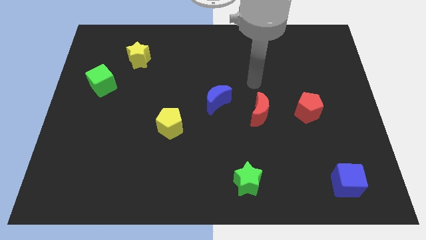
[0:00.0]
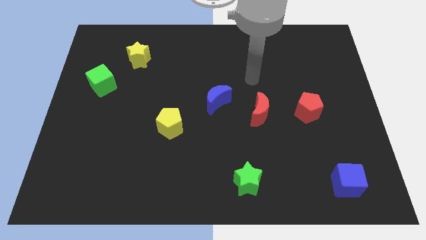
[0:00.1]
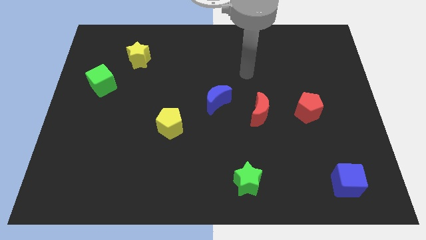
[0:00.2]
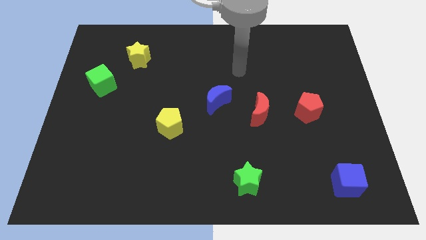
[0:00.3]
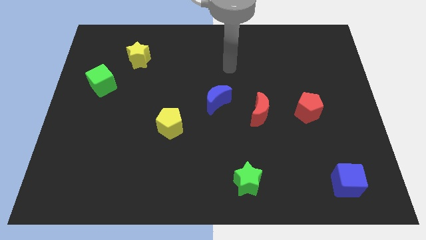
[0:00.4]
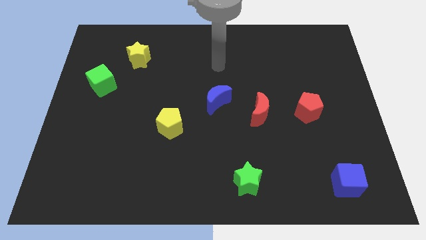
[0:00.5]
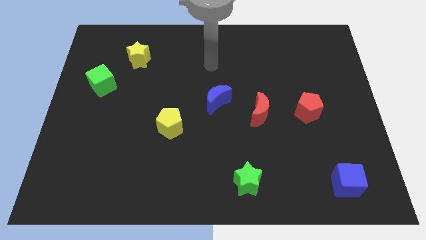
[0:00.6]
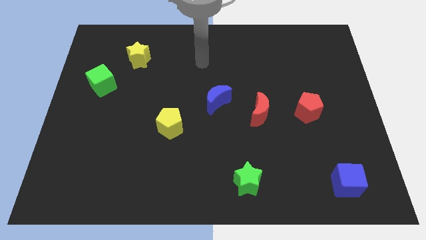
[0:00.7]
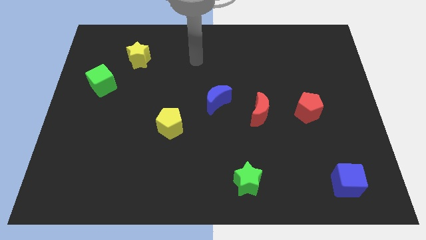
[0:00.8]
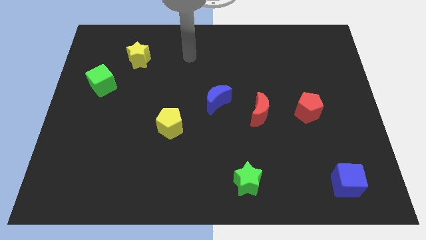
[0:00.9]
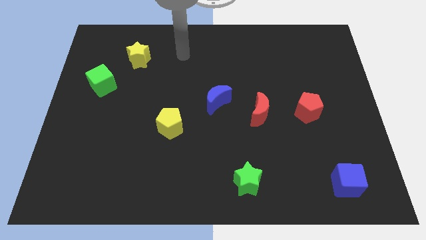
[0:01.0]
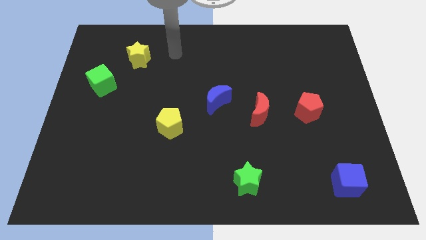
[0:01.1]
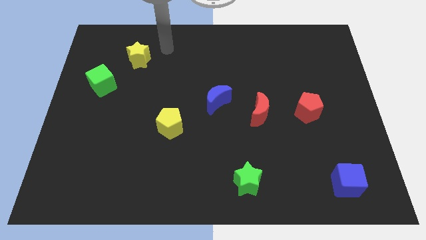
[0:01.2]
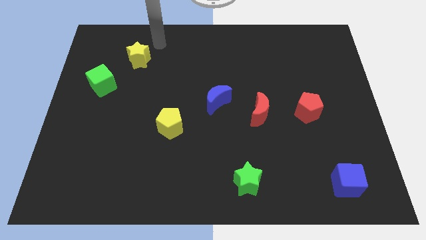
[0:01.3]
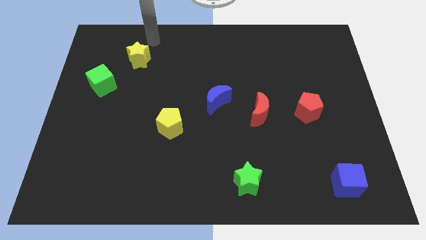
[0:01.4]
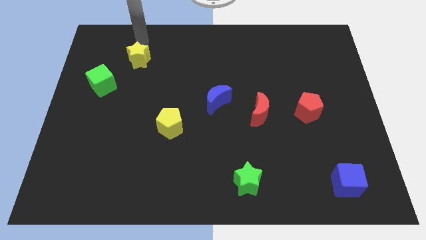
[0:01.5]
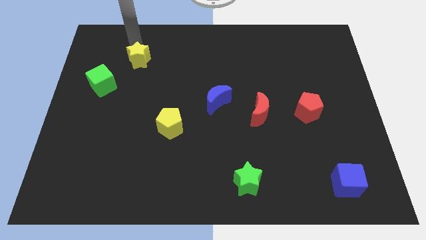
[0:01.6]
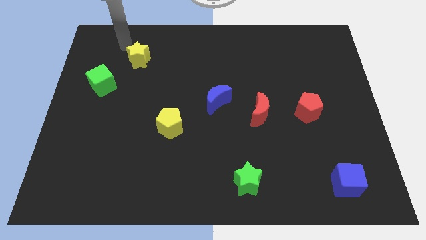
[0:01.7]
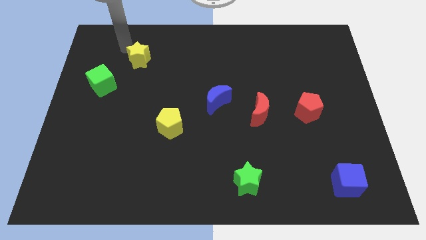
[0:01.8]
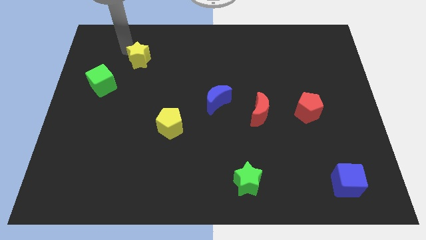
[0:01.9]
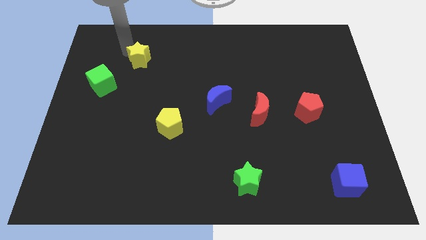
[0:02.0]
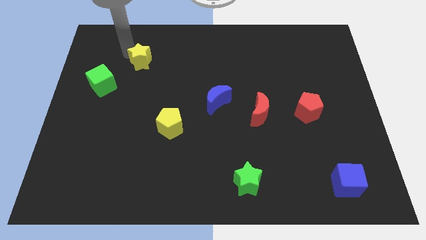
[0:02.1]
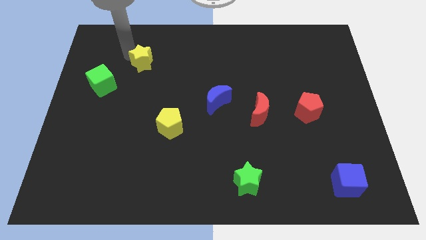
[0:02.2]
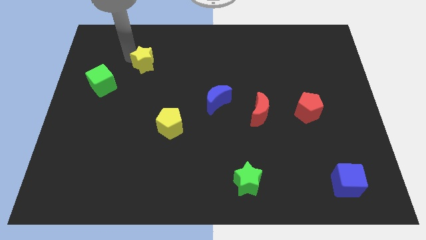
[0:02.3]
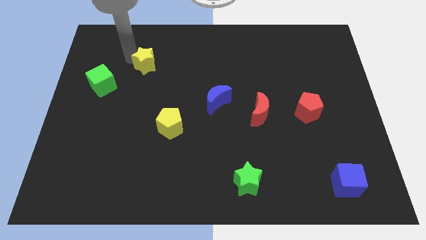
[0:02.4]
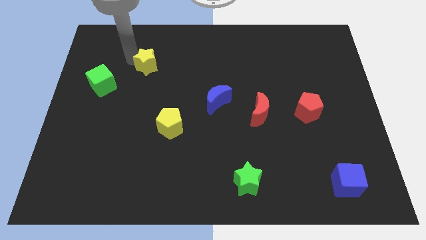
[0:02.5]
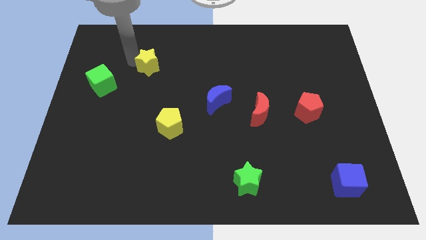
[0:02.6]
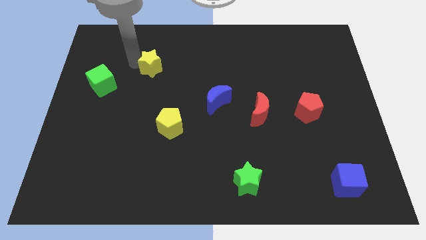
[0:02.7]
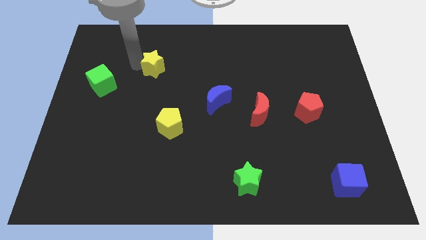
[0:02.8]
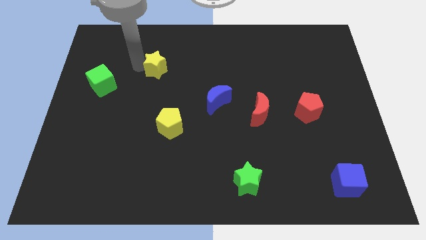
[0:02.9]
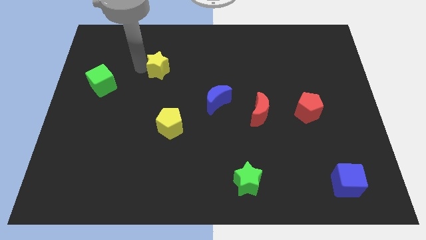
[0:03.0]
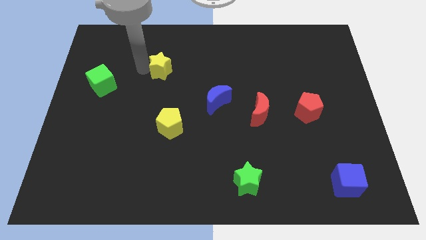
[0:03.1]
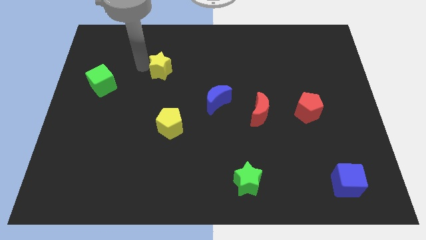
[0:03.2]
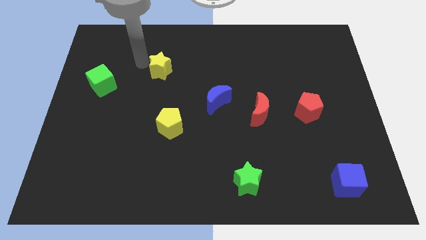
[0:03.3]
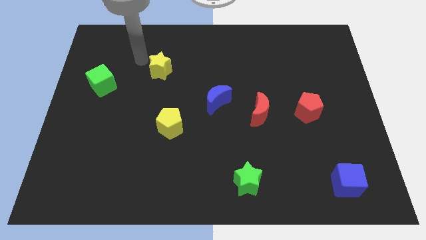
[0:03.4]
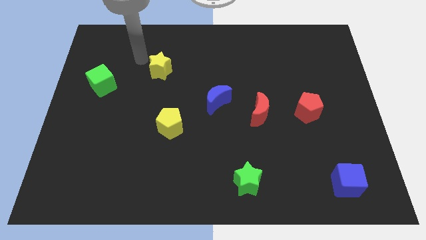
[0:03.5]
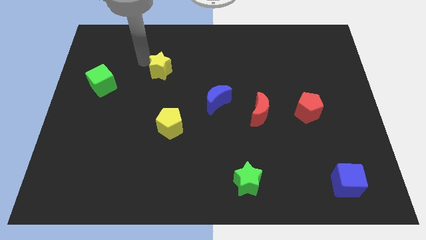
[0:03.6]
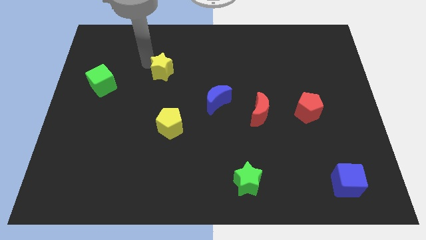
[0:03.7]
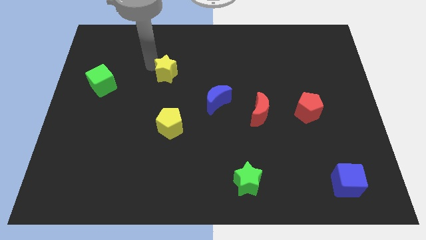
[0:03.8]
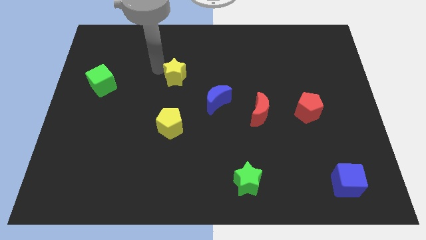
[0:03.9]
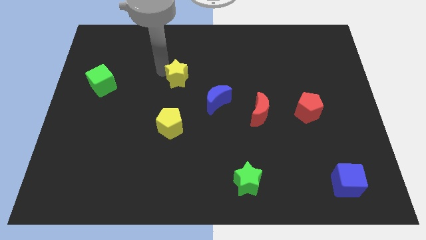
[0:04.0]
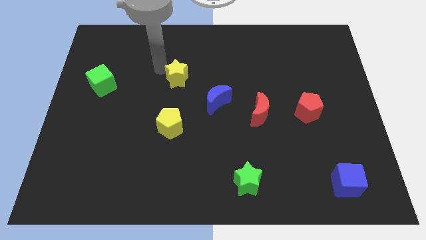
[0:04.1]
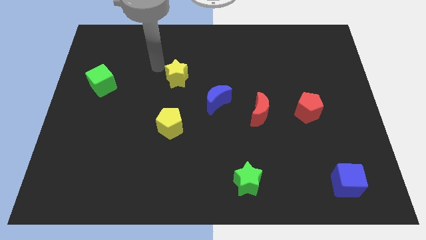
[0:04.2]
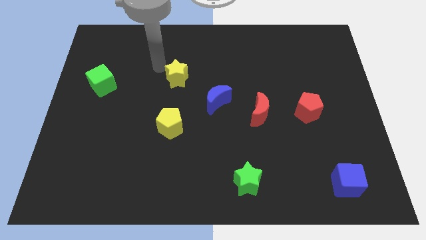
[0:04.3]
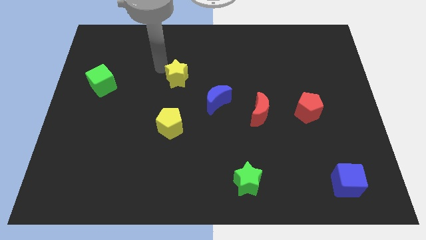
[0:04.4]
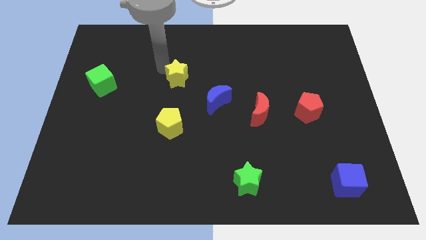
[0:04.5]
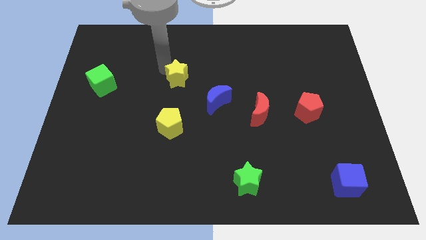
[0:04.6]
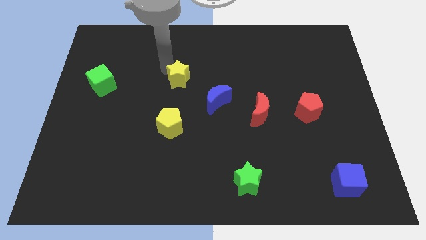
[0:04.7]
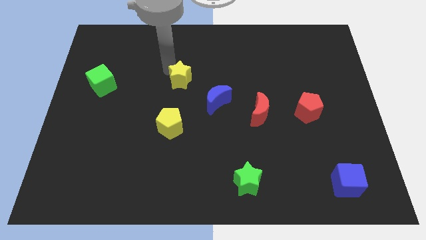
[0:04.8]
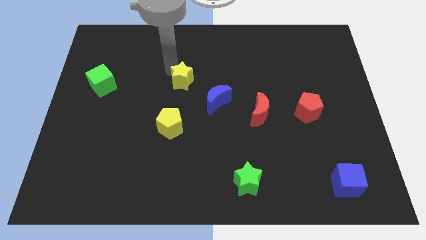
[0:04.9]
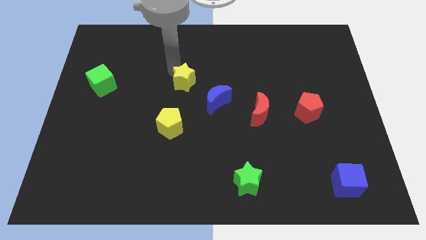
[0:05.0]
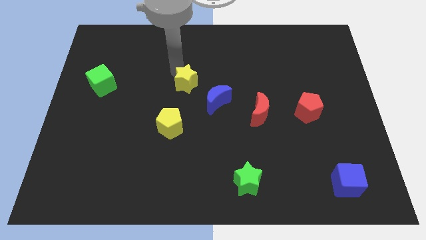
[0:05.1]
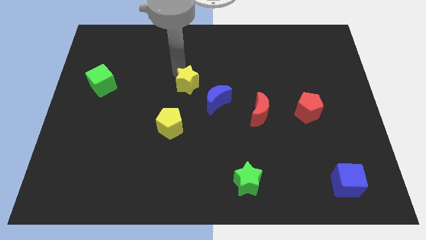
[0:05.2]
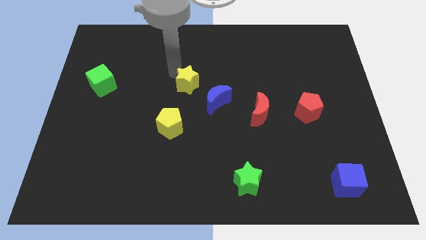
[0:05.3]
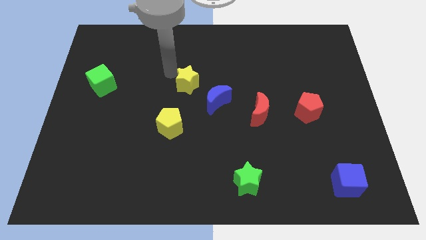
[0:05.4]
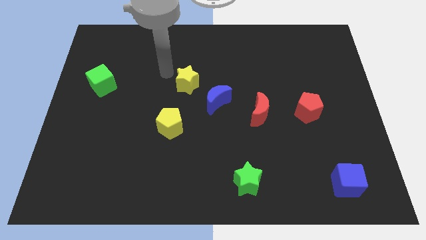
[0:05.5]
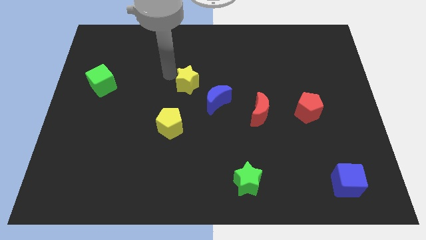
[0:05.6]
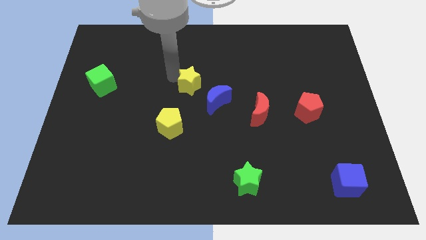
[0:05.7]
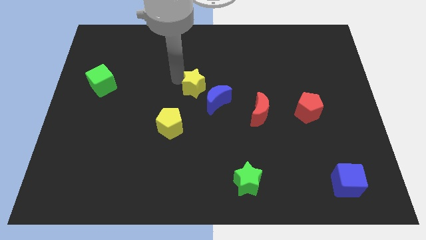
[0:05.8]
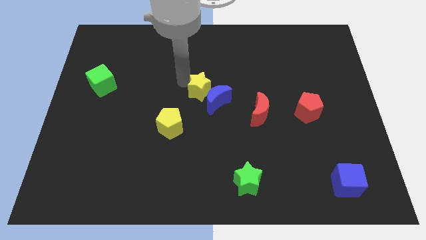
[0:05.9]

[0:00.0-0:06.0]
put the yellow star next to the blue moon

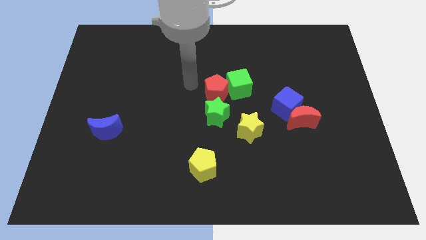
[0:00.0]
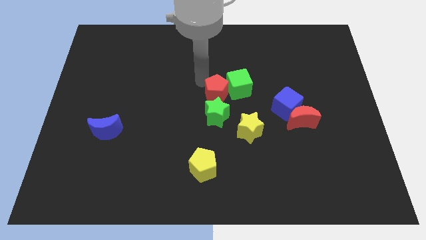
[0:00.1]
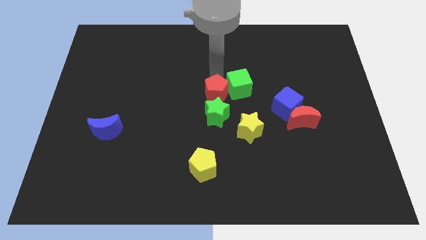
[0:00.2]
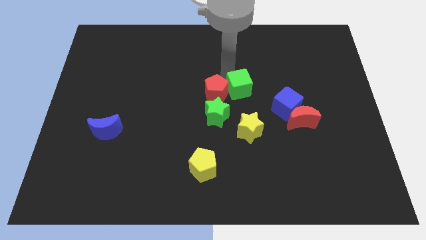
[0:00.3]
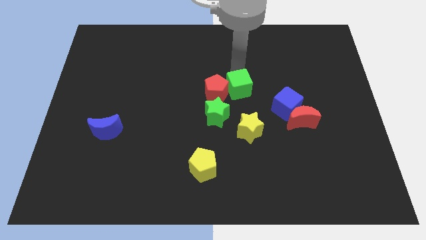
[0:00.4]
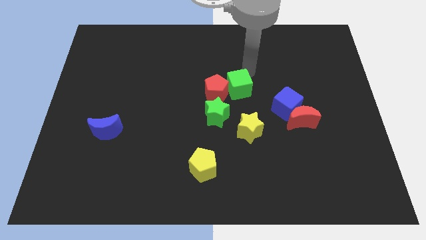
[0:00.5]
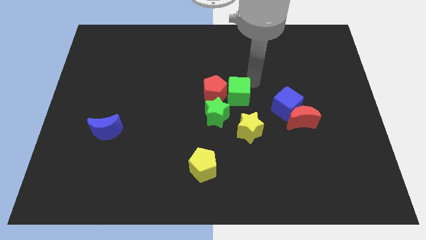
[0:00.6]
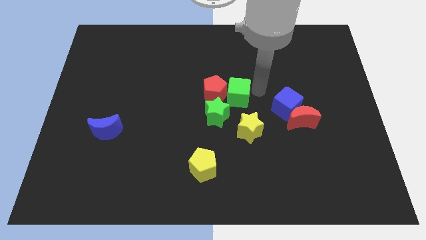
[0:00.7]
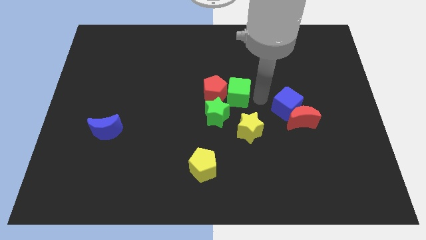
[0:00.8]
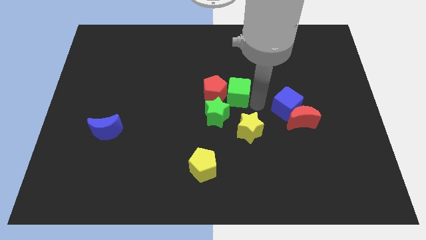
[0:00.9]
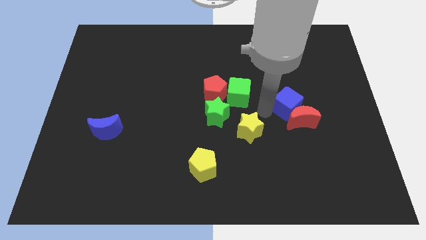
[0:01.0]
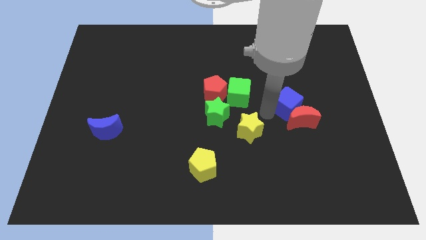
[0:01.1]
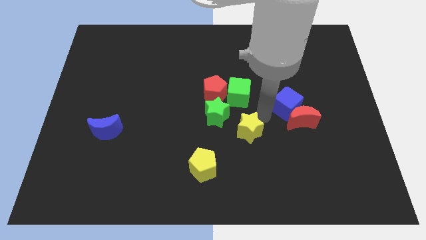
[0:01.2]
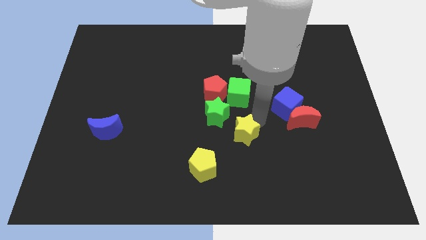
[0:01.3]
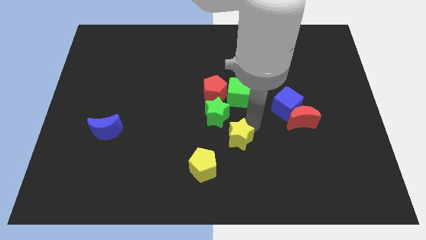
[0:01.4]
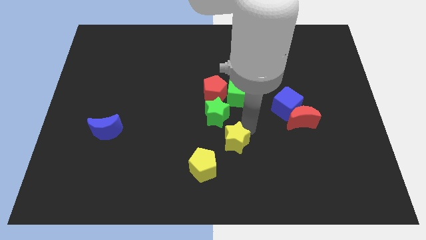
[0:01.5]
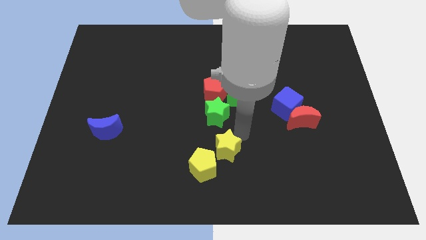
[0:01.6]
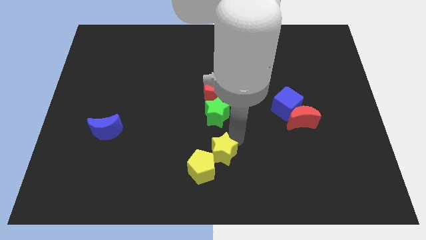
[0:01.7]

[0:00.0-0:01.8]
move the yellow star to the yellow pentagon
